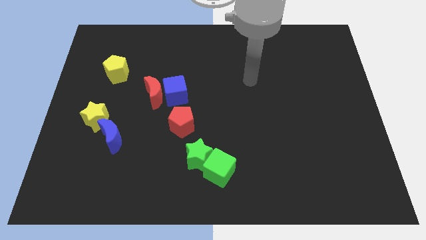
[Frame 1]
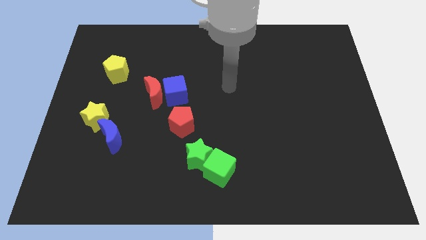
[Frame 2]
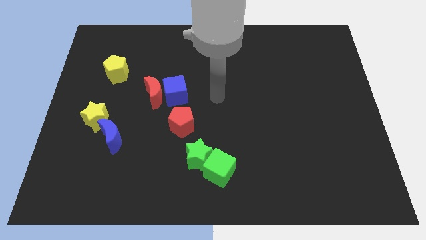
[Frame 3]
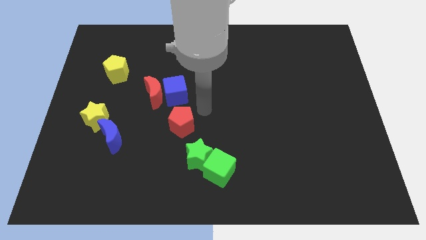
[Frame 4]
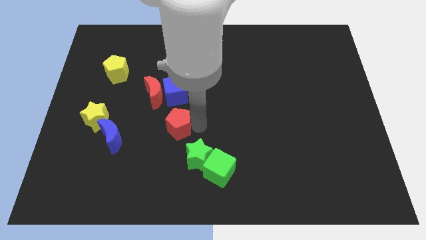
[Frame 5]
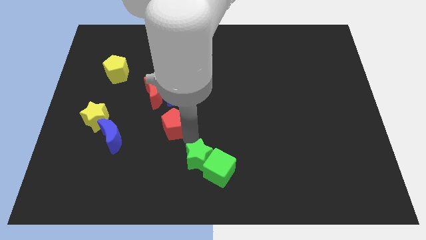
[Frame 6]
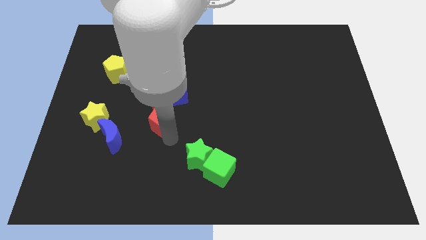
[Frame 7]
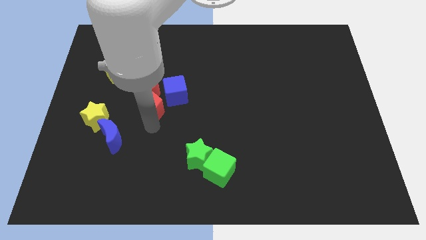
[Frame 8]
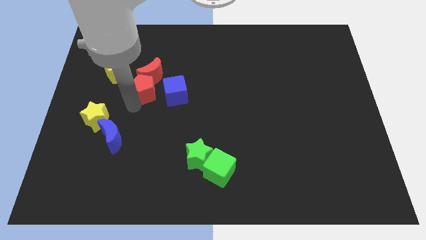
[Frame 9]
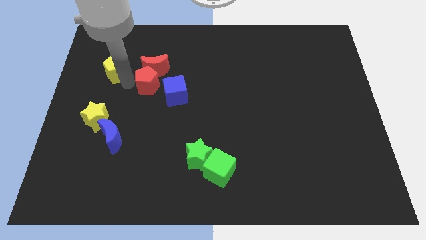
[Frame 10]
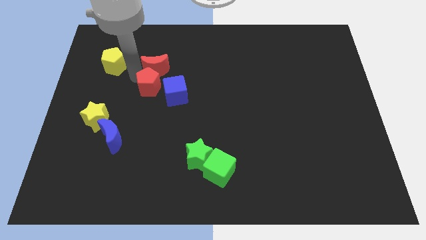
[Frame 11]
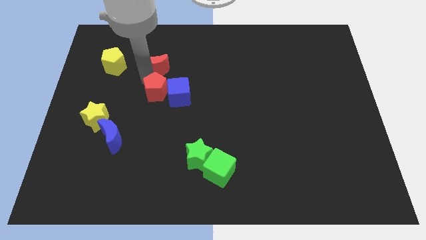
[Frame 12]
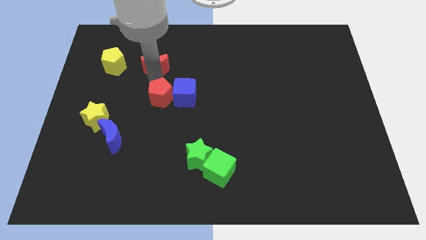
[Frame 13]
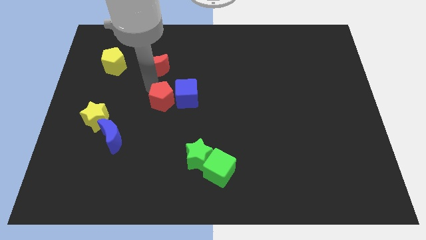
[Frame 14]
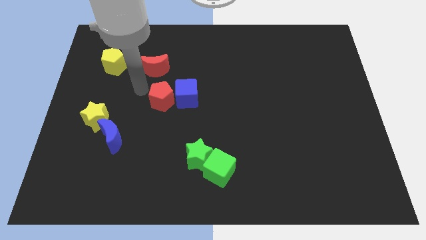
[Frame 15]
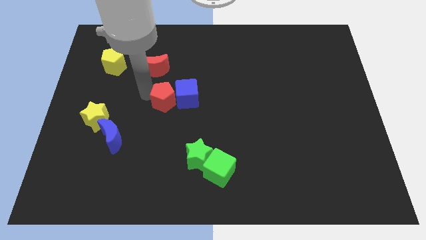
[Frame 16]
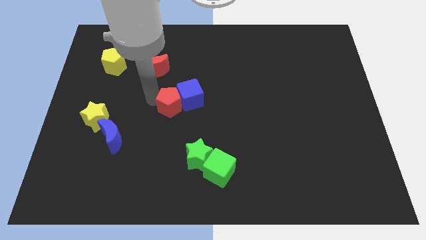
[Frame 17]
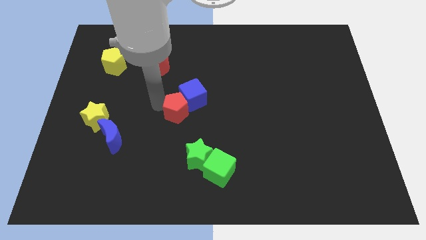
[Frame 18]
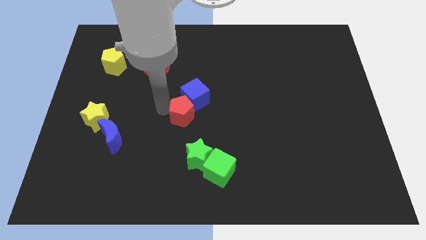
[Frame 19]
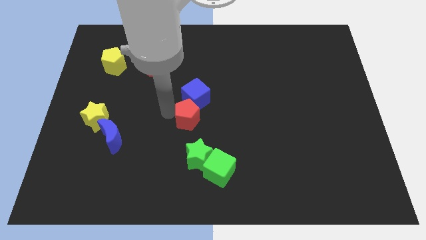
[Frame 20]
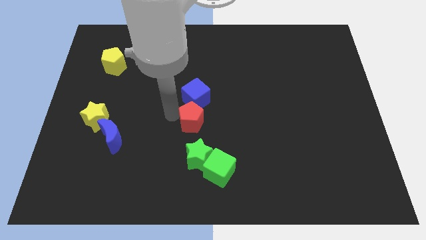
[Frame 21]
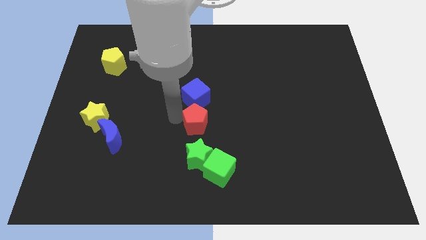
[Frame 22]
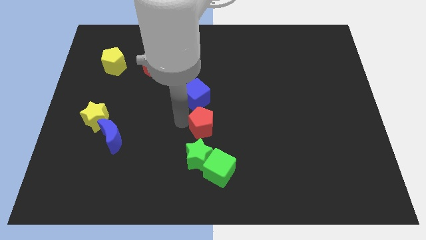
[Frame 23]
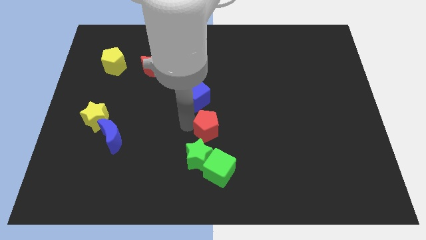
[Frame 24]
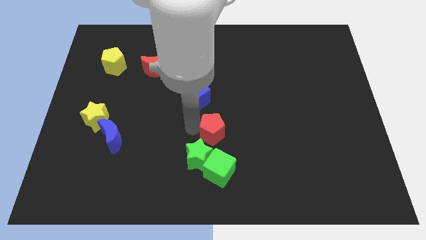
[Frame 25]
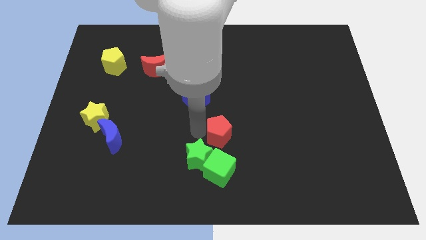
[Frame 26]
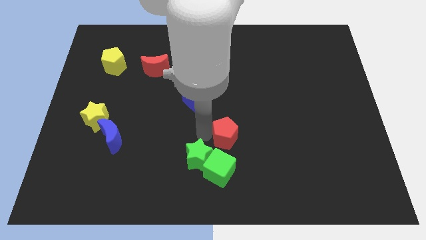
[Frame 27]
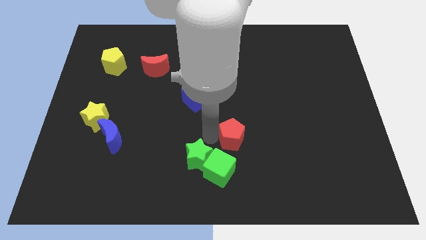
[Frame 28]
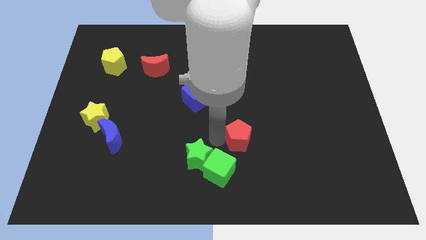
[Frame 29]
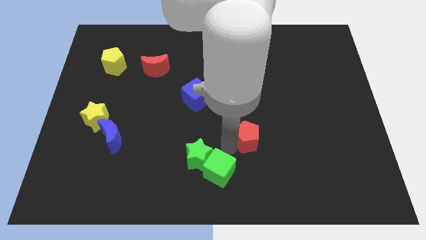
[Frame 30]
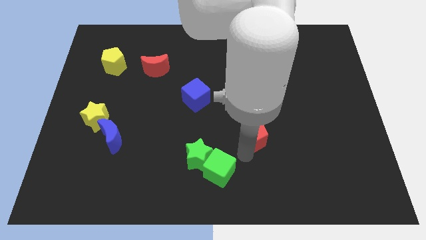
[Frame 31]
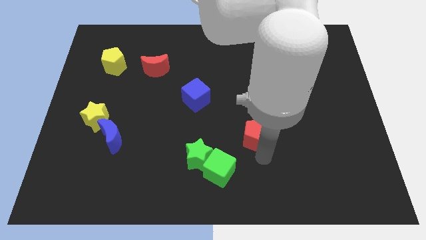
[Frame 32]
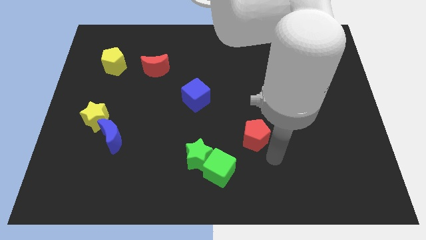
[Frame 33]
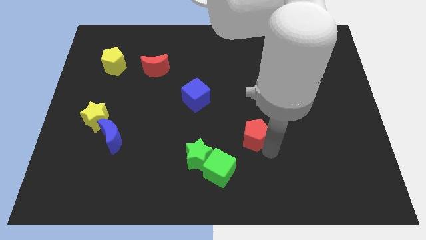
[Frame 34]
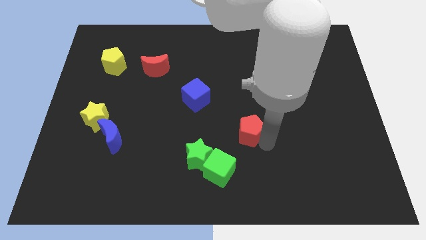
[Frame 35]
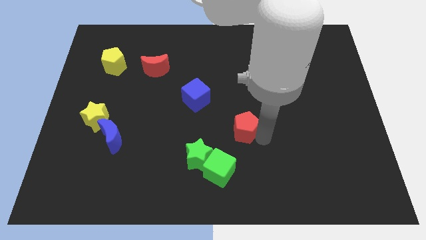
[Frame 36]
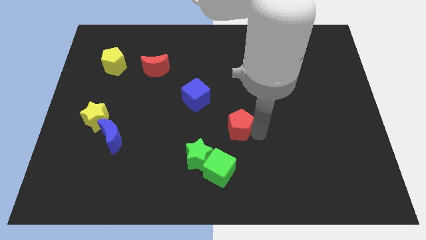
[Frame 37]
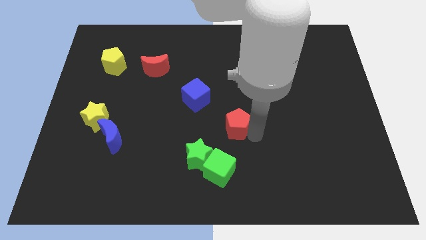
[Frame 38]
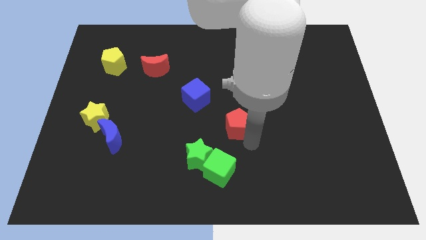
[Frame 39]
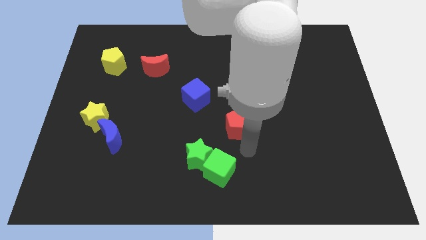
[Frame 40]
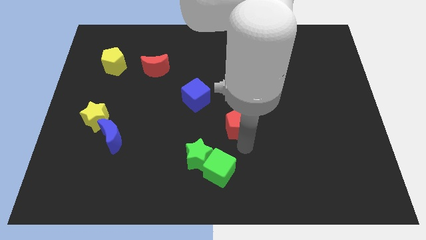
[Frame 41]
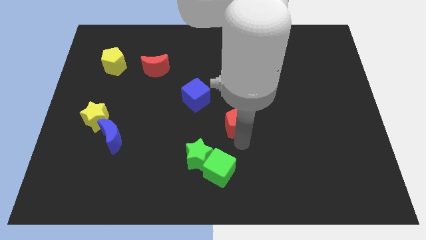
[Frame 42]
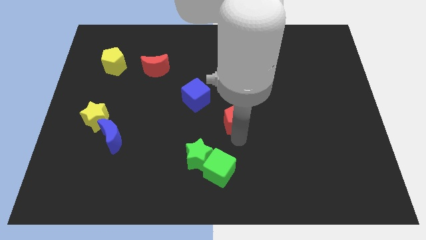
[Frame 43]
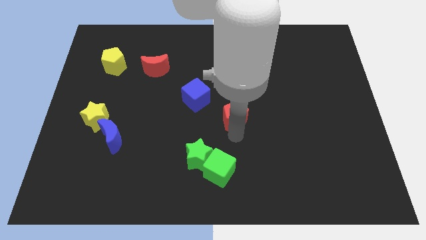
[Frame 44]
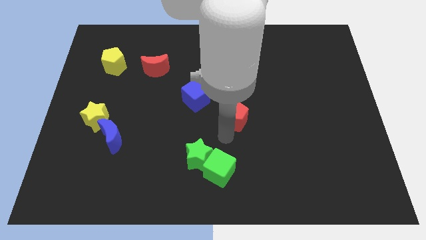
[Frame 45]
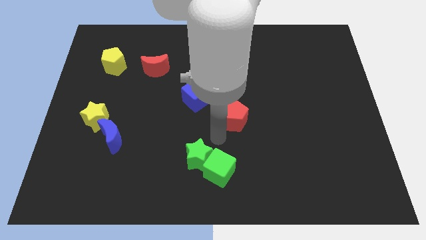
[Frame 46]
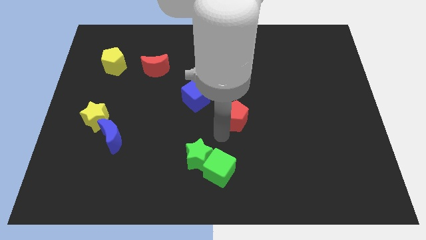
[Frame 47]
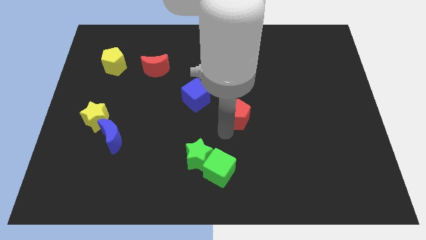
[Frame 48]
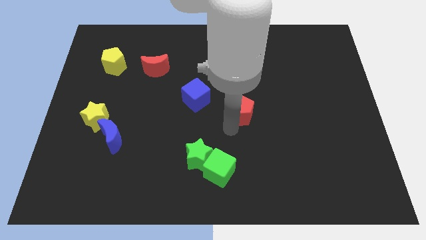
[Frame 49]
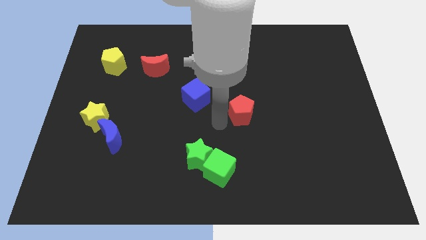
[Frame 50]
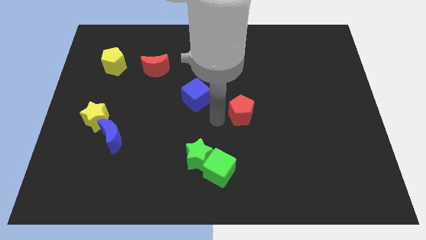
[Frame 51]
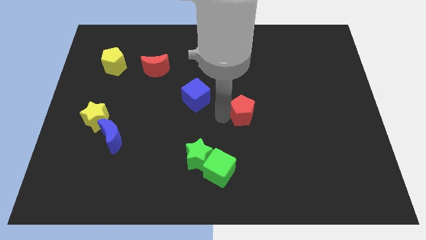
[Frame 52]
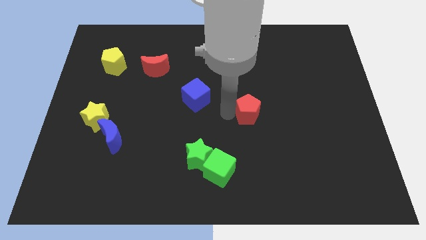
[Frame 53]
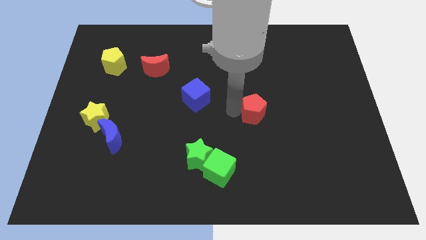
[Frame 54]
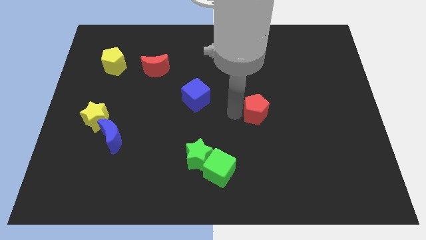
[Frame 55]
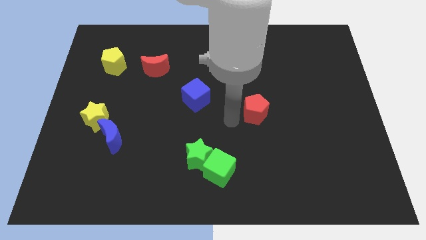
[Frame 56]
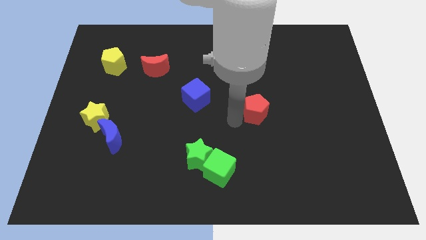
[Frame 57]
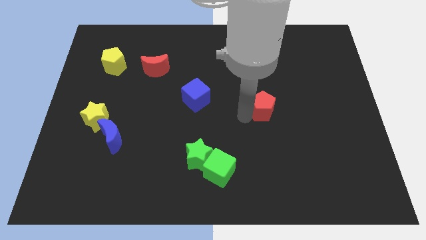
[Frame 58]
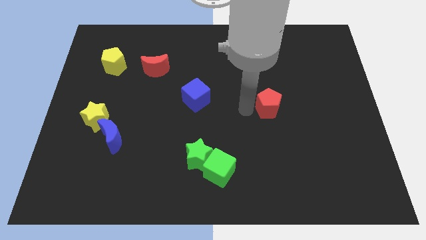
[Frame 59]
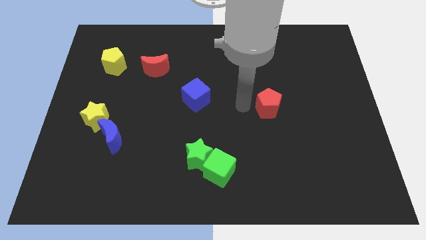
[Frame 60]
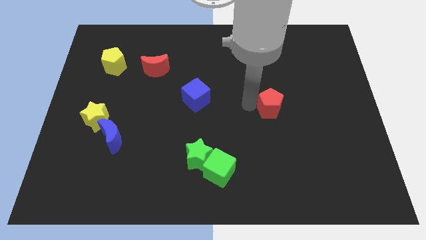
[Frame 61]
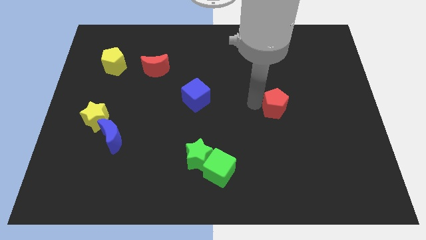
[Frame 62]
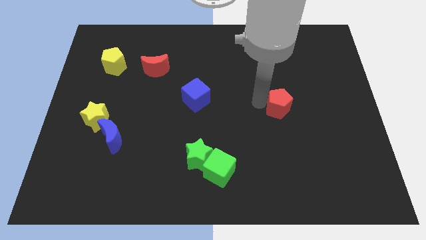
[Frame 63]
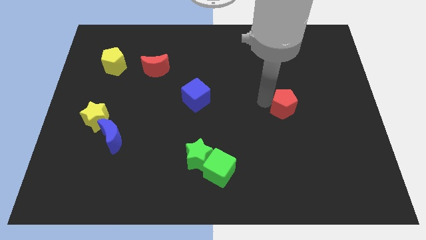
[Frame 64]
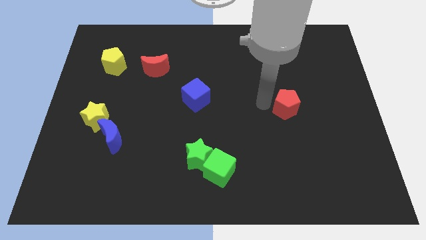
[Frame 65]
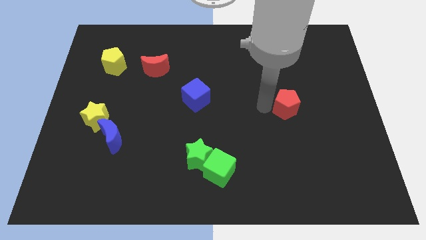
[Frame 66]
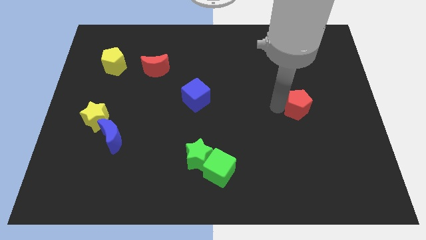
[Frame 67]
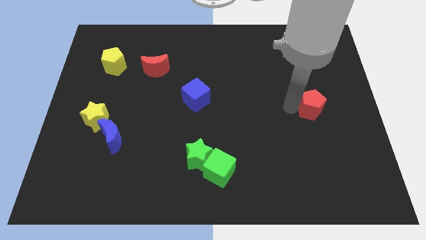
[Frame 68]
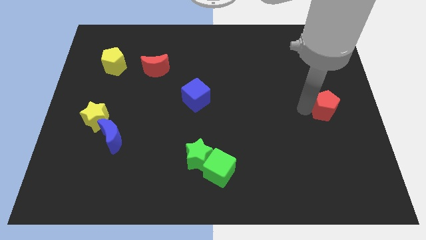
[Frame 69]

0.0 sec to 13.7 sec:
move the red pentagon to the right side
